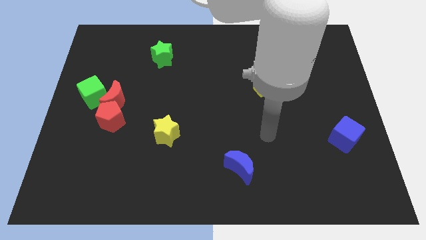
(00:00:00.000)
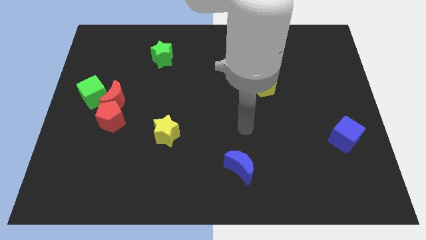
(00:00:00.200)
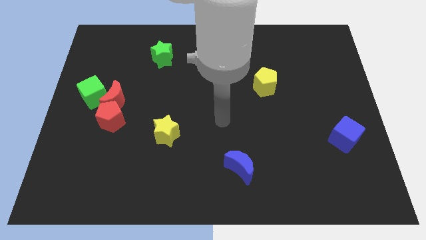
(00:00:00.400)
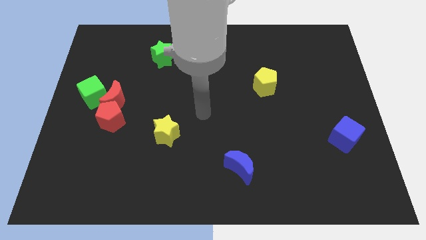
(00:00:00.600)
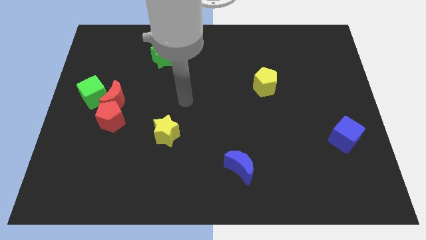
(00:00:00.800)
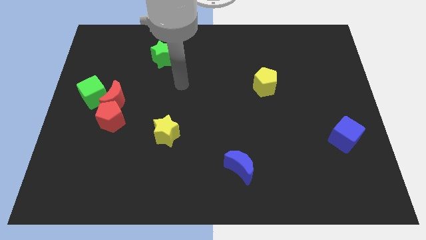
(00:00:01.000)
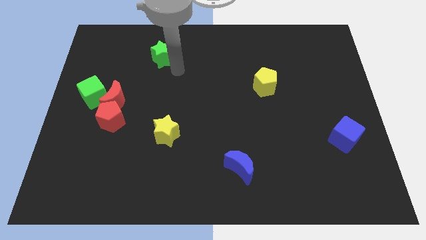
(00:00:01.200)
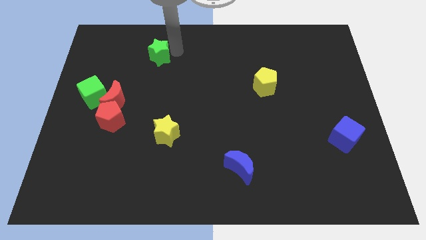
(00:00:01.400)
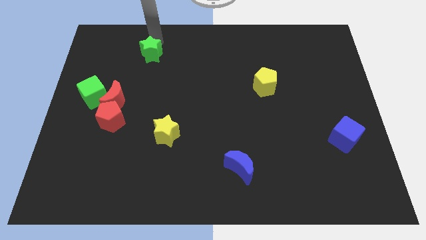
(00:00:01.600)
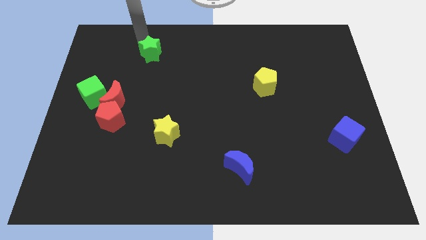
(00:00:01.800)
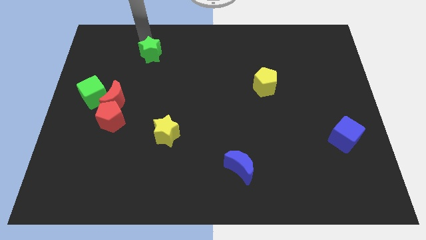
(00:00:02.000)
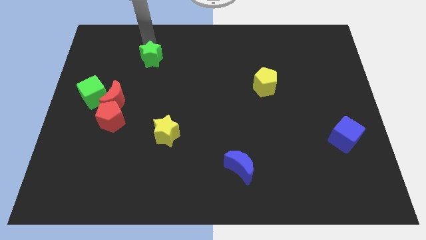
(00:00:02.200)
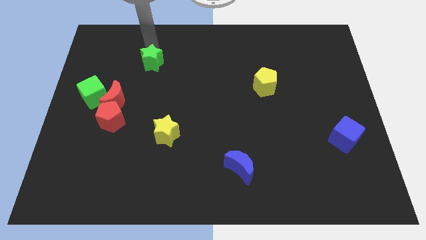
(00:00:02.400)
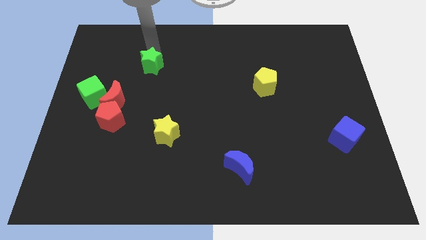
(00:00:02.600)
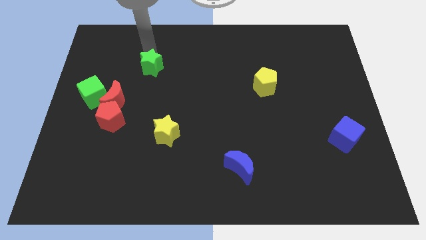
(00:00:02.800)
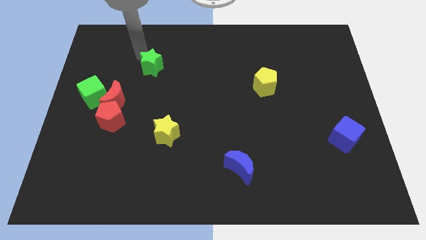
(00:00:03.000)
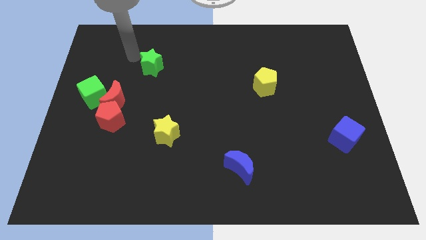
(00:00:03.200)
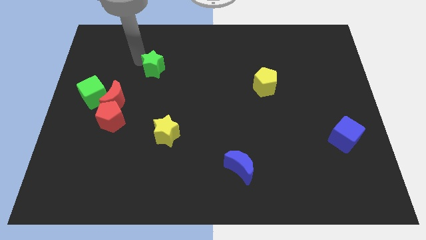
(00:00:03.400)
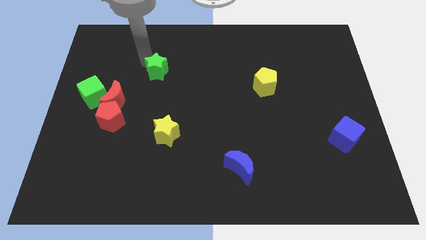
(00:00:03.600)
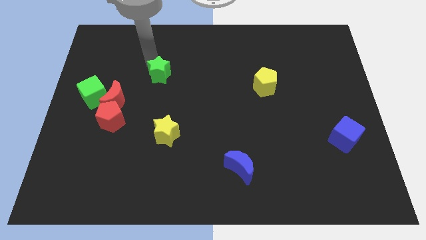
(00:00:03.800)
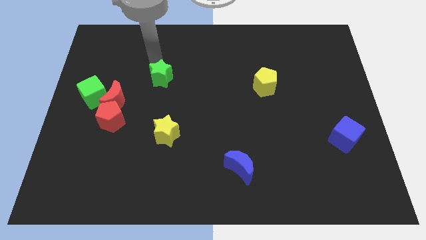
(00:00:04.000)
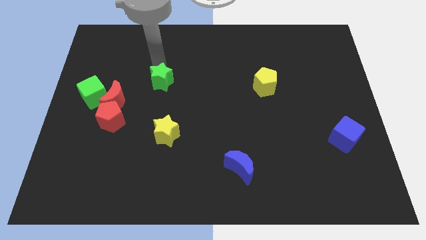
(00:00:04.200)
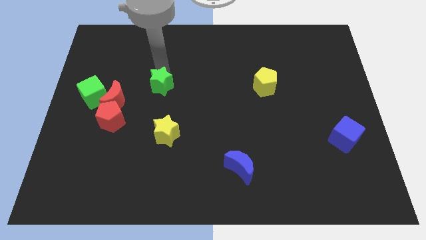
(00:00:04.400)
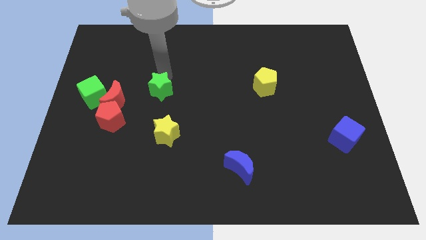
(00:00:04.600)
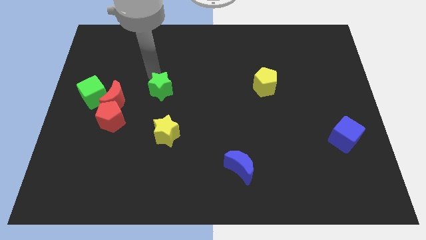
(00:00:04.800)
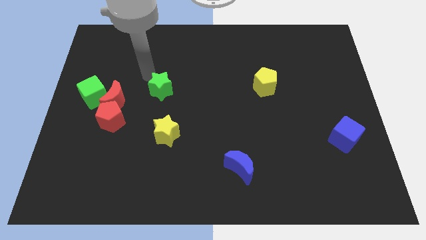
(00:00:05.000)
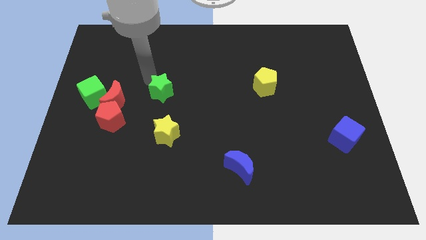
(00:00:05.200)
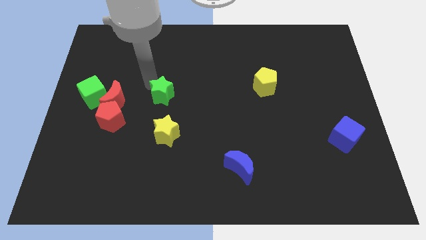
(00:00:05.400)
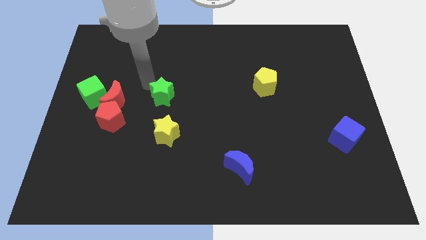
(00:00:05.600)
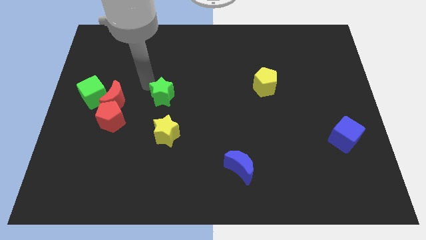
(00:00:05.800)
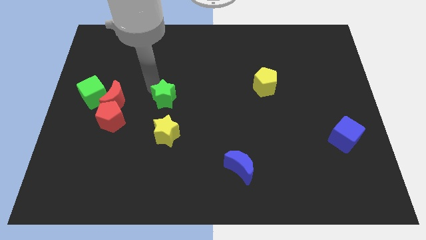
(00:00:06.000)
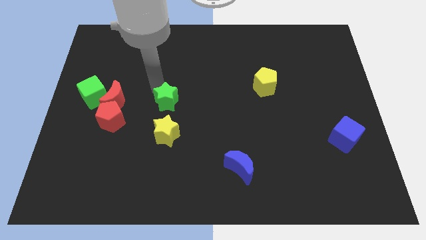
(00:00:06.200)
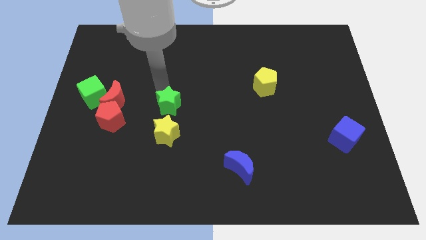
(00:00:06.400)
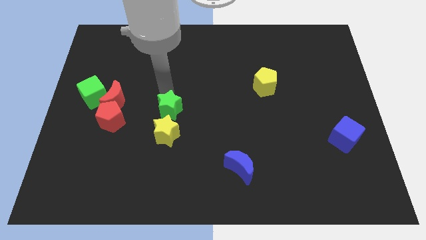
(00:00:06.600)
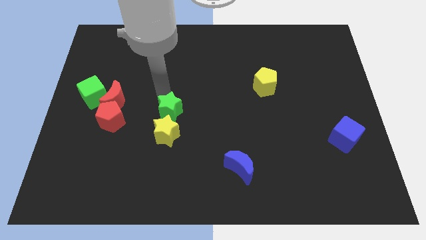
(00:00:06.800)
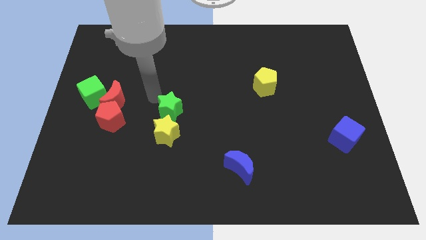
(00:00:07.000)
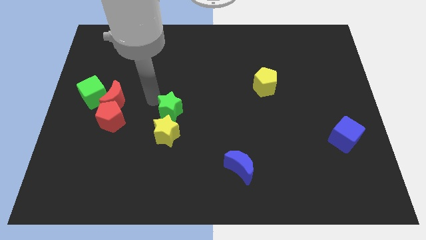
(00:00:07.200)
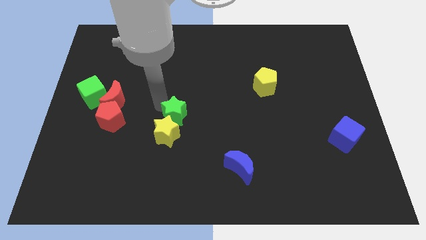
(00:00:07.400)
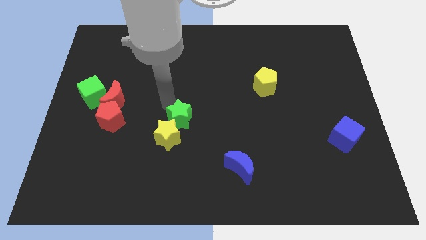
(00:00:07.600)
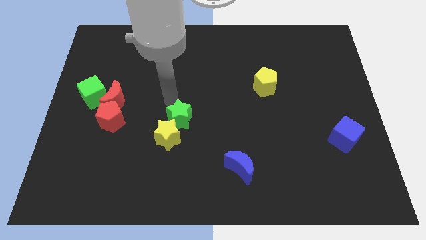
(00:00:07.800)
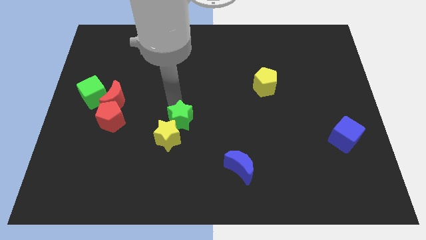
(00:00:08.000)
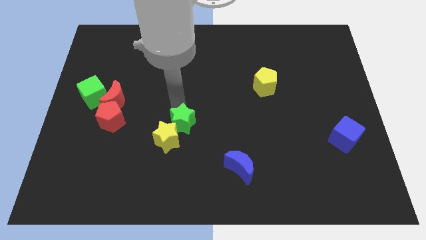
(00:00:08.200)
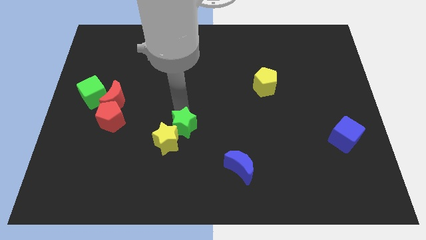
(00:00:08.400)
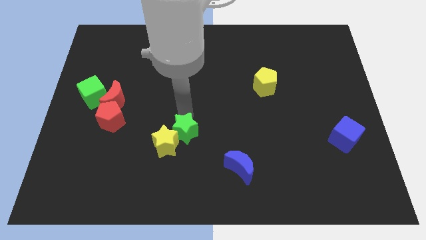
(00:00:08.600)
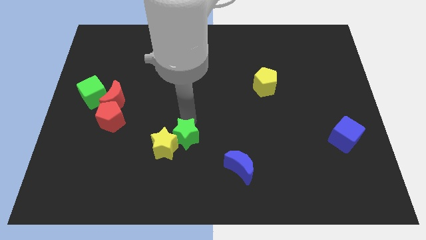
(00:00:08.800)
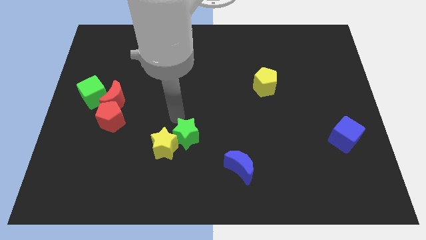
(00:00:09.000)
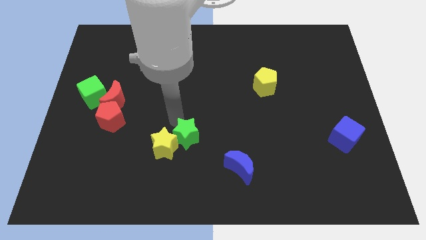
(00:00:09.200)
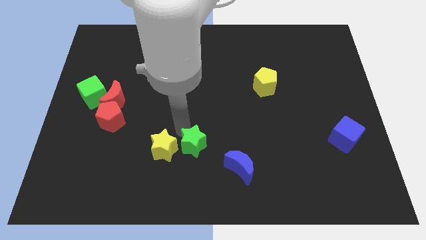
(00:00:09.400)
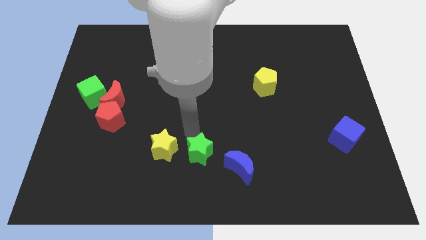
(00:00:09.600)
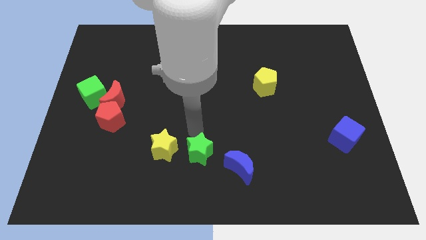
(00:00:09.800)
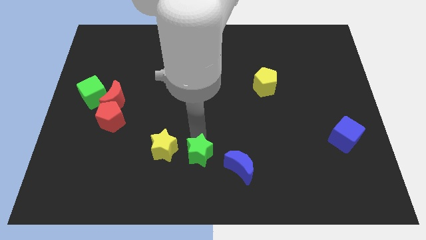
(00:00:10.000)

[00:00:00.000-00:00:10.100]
move the green star to the bottom side
